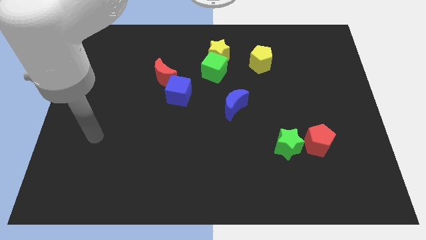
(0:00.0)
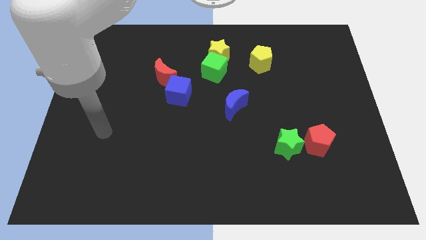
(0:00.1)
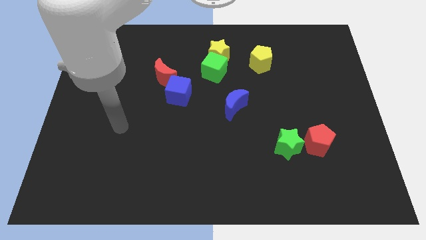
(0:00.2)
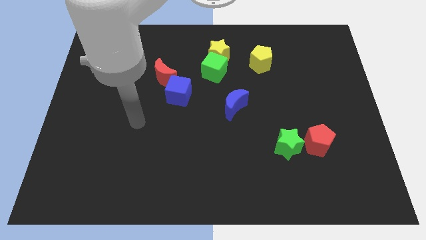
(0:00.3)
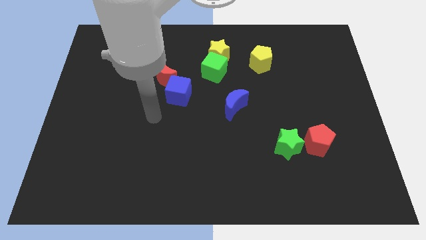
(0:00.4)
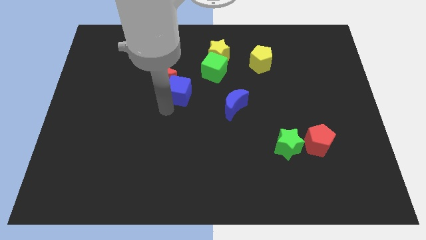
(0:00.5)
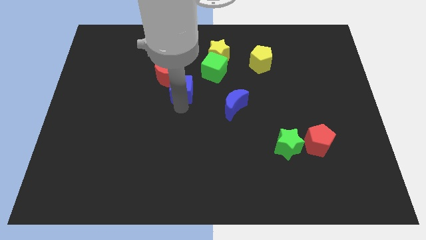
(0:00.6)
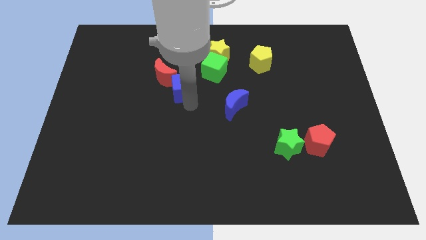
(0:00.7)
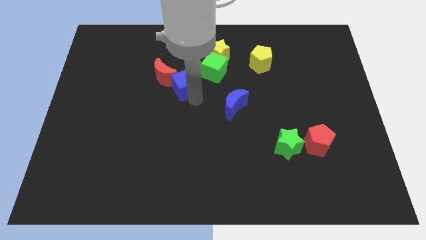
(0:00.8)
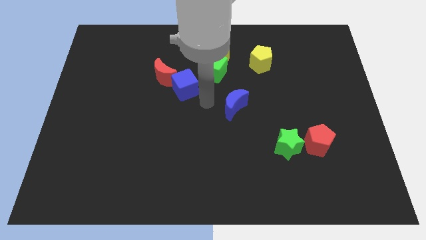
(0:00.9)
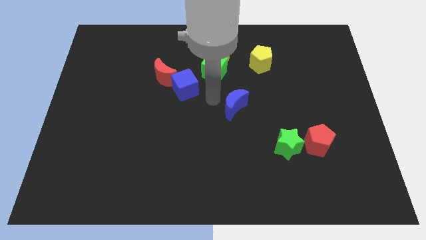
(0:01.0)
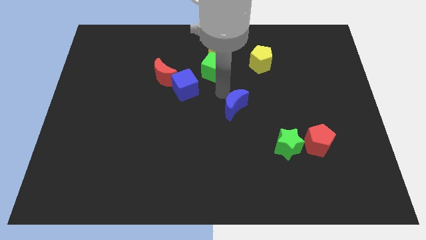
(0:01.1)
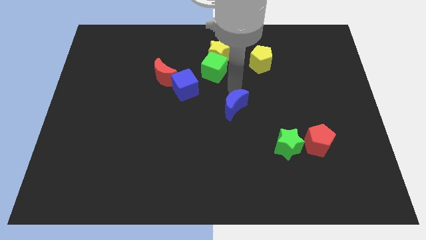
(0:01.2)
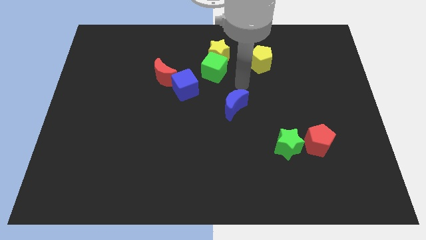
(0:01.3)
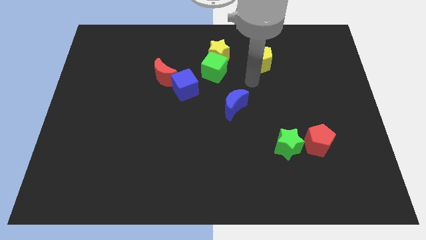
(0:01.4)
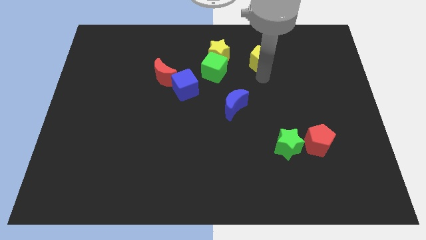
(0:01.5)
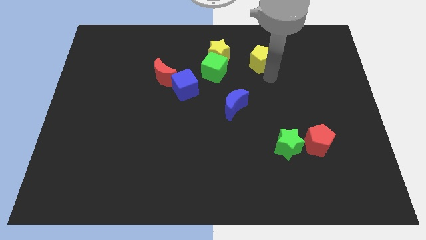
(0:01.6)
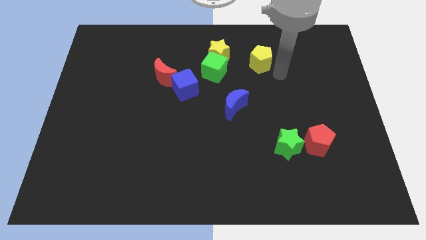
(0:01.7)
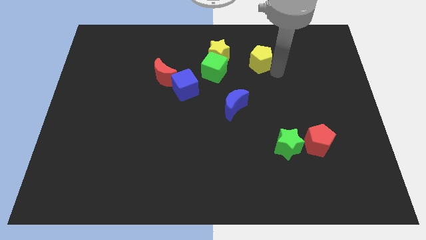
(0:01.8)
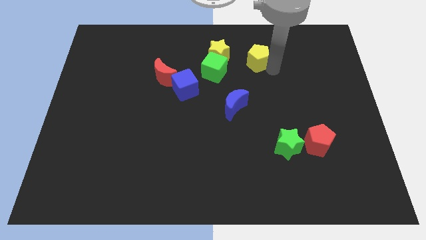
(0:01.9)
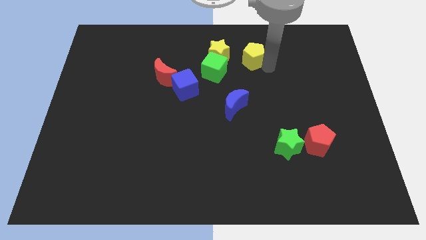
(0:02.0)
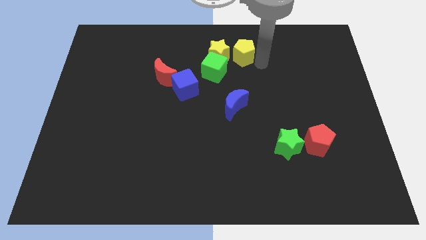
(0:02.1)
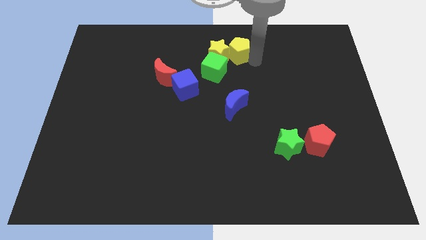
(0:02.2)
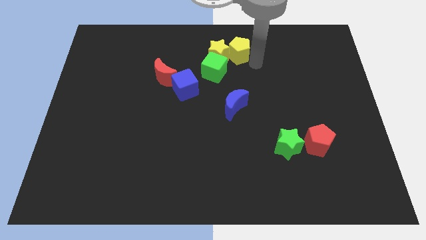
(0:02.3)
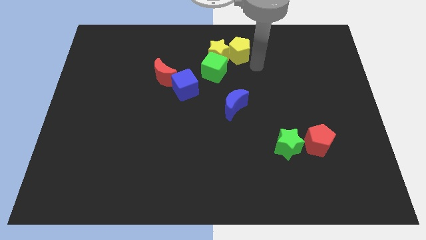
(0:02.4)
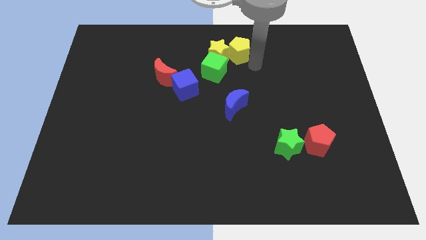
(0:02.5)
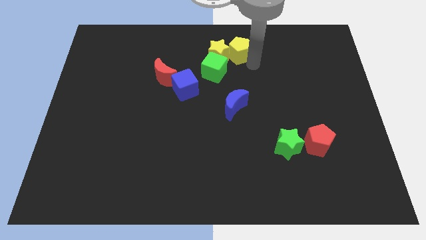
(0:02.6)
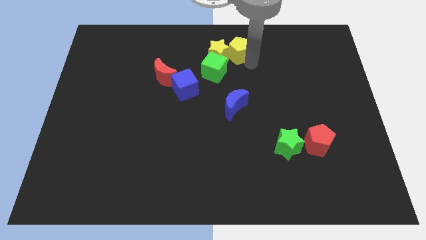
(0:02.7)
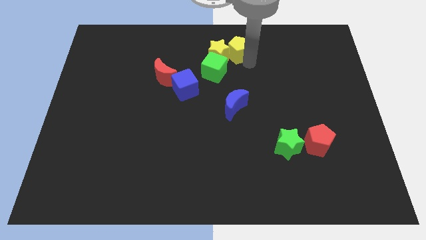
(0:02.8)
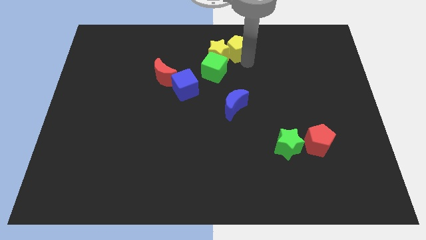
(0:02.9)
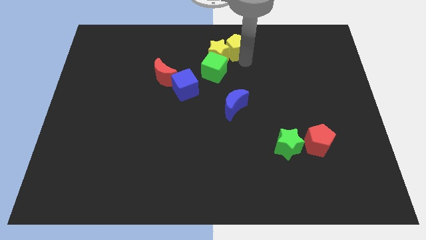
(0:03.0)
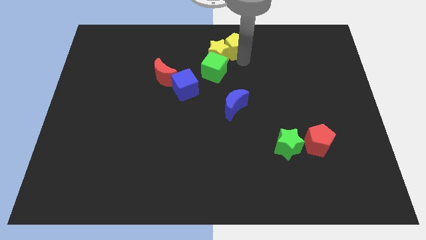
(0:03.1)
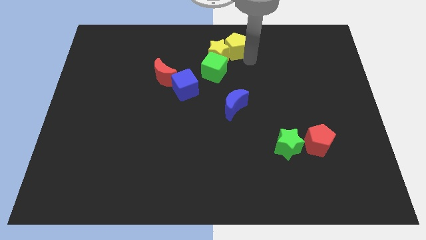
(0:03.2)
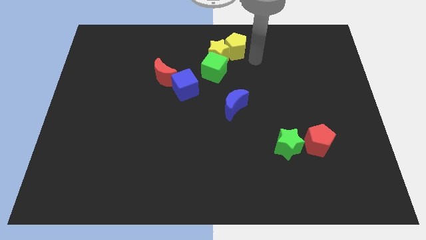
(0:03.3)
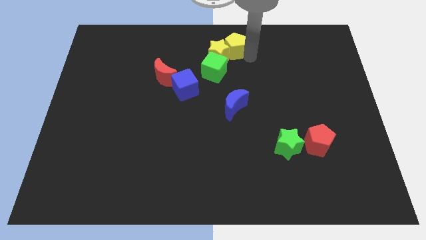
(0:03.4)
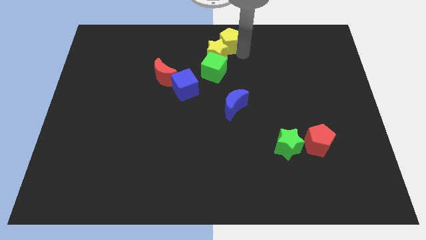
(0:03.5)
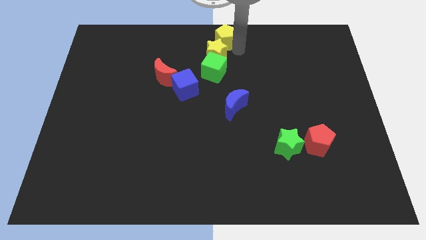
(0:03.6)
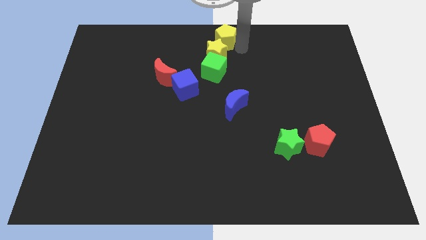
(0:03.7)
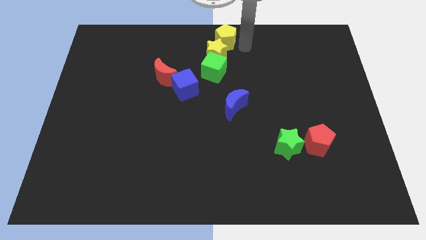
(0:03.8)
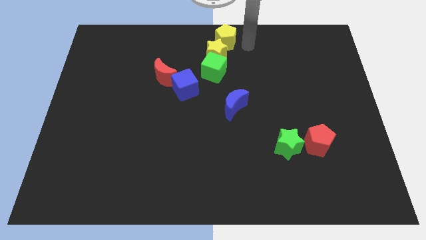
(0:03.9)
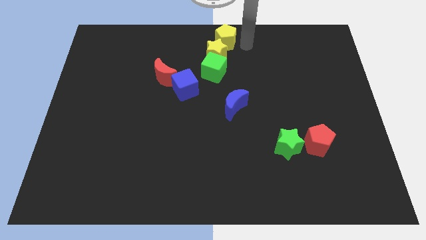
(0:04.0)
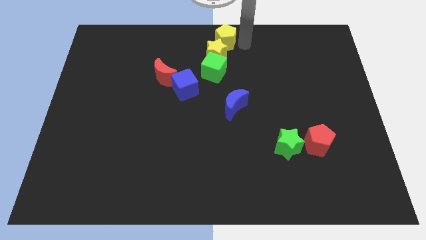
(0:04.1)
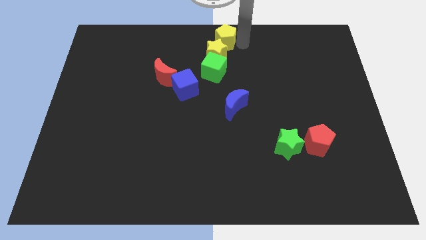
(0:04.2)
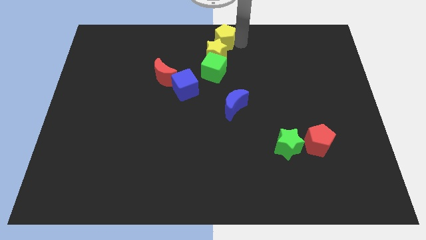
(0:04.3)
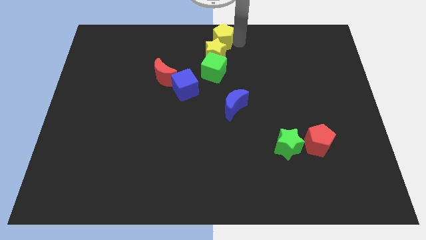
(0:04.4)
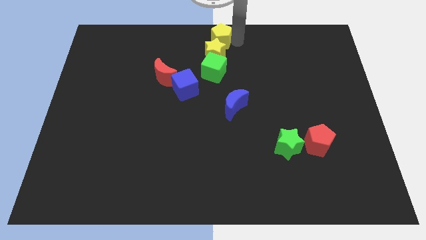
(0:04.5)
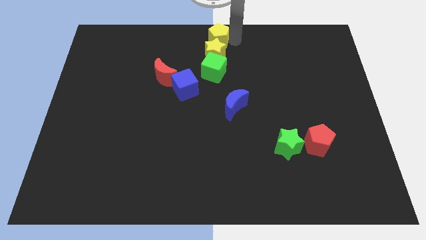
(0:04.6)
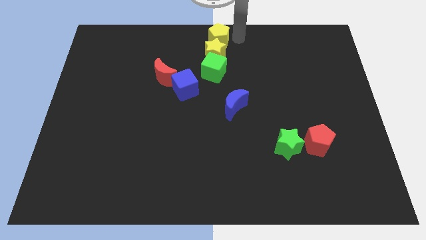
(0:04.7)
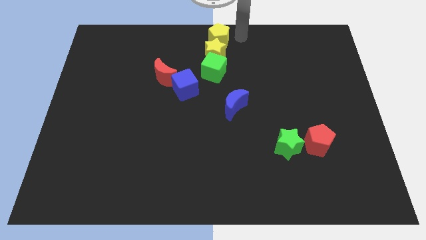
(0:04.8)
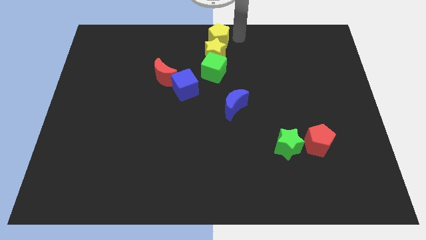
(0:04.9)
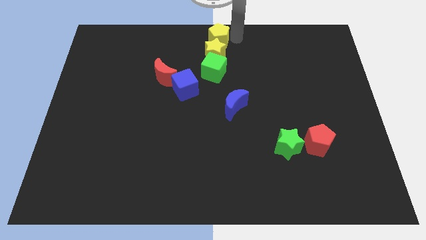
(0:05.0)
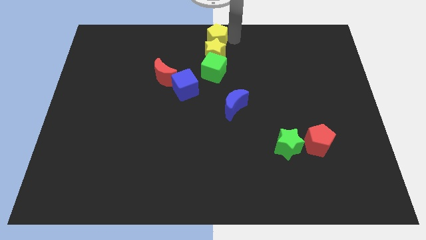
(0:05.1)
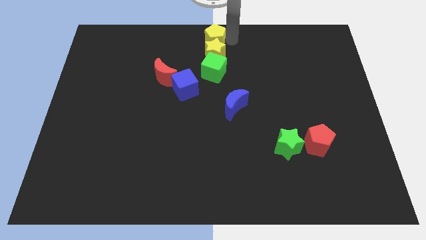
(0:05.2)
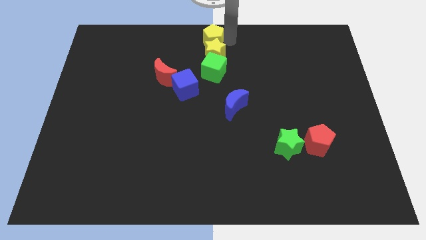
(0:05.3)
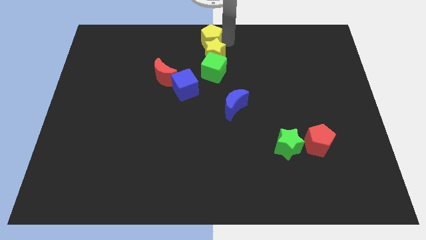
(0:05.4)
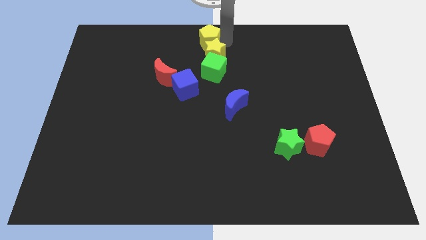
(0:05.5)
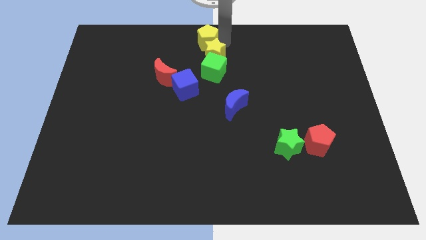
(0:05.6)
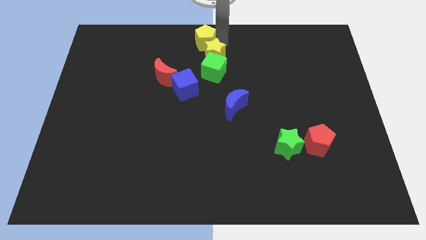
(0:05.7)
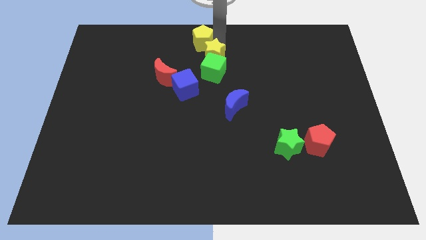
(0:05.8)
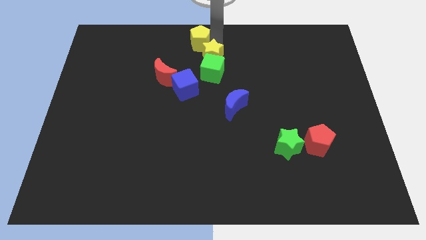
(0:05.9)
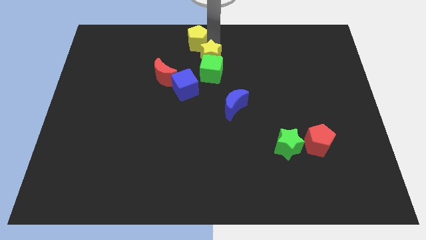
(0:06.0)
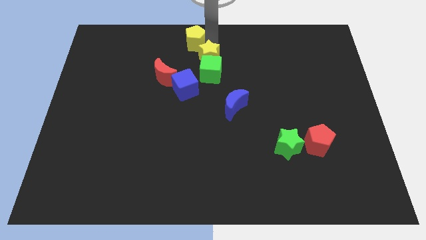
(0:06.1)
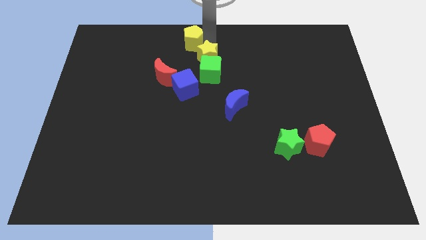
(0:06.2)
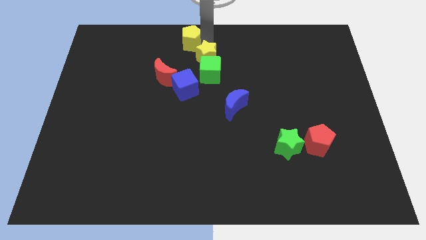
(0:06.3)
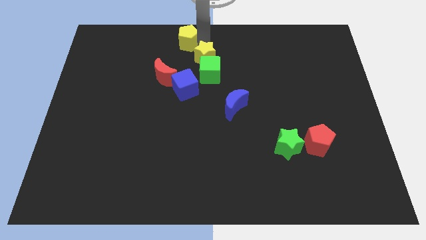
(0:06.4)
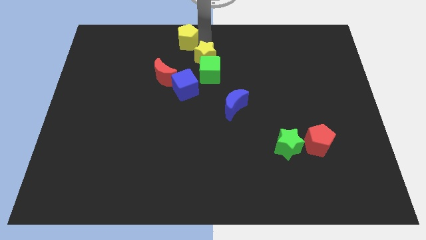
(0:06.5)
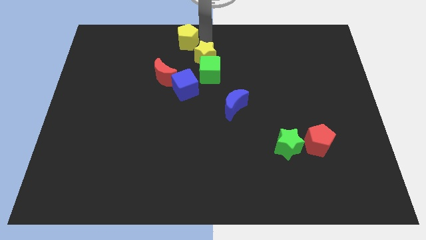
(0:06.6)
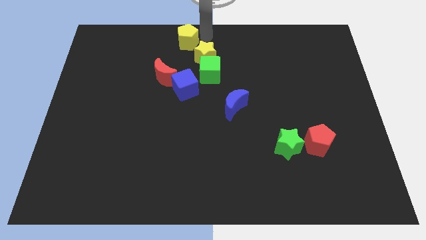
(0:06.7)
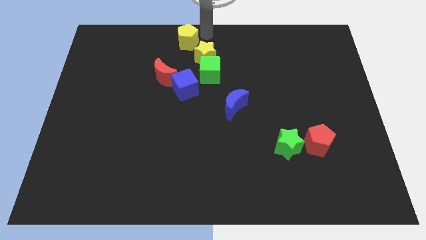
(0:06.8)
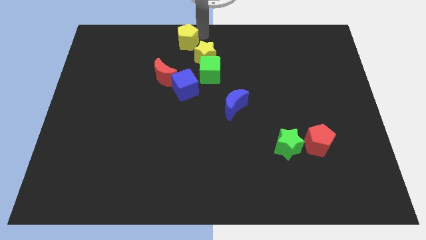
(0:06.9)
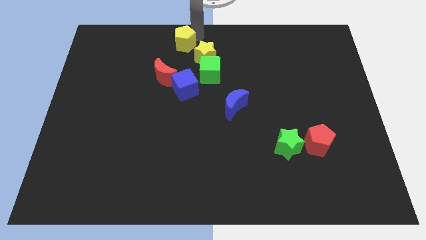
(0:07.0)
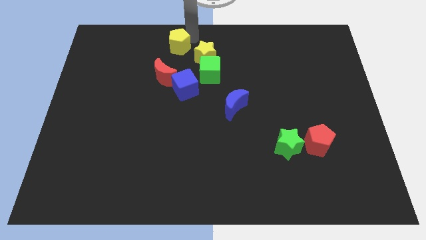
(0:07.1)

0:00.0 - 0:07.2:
slide the yellow pentagon left

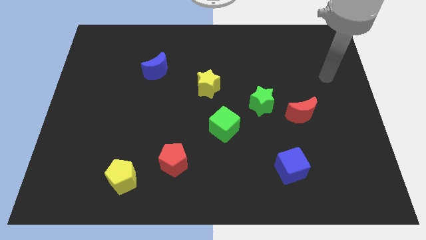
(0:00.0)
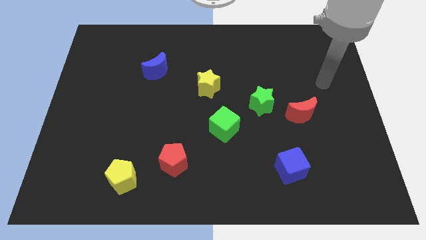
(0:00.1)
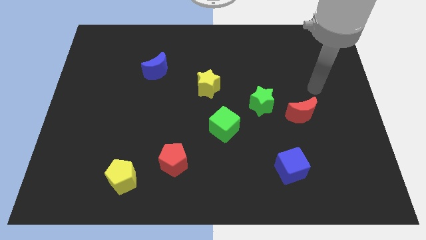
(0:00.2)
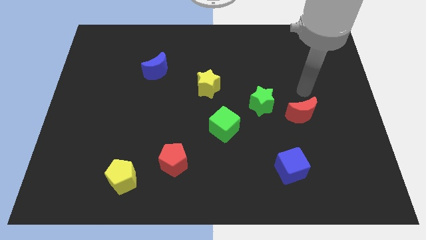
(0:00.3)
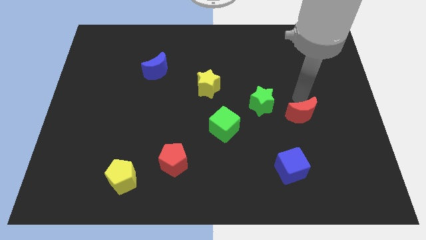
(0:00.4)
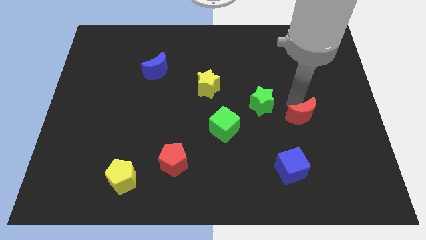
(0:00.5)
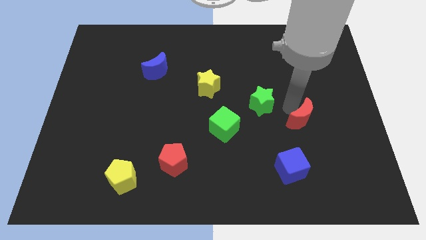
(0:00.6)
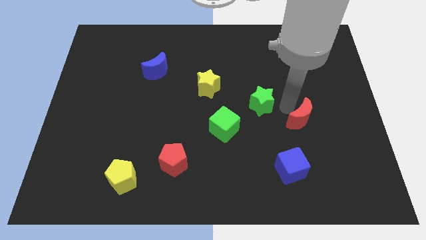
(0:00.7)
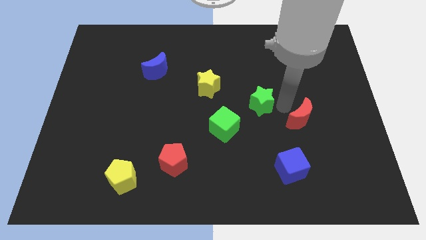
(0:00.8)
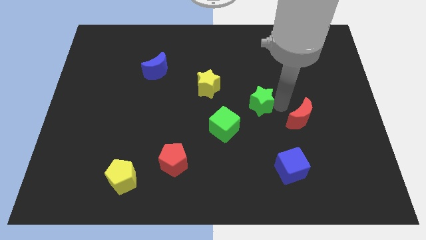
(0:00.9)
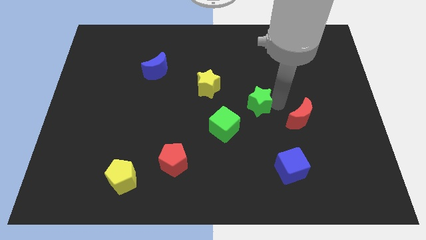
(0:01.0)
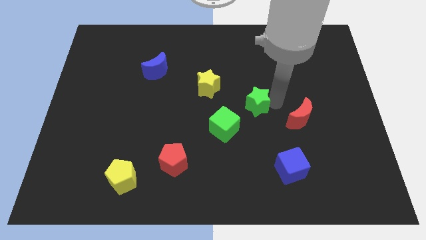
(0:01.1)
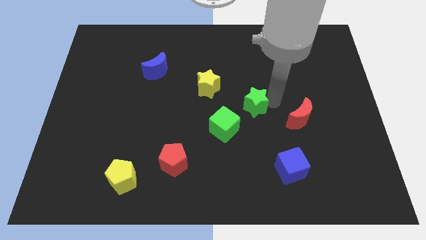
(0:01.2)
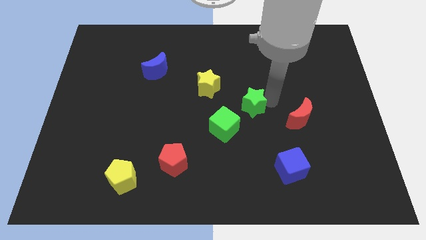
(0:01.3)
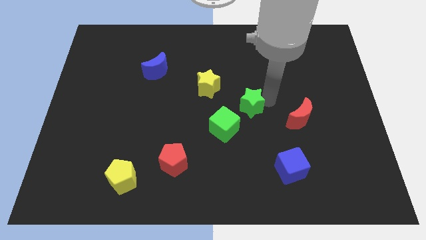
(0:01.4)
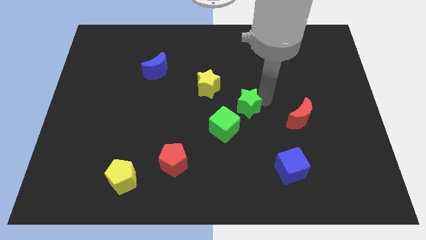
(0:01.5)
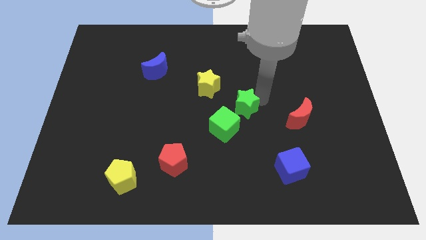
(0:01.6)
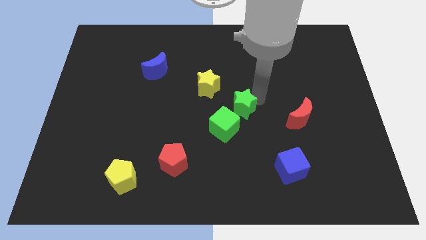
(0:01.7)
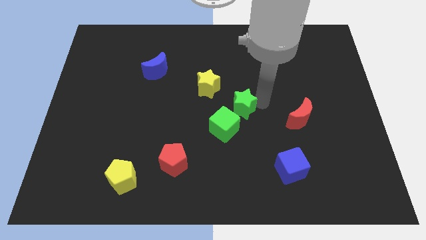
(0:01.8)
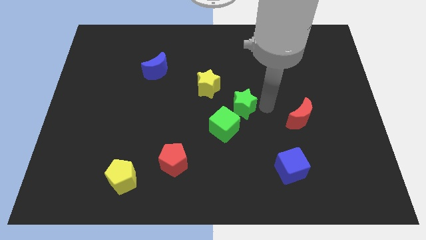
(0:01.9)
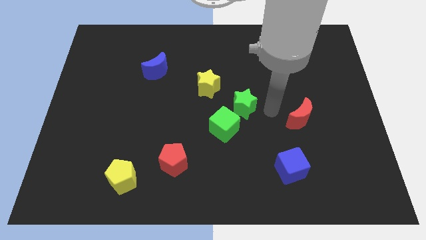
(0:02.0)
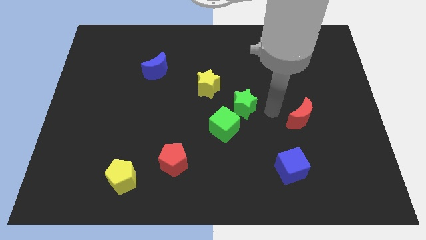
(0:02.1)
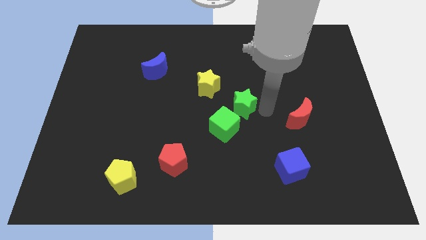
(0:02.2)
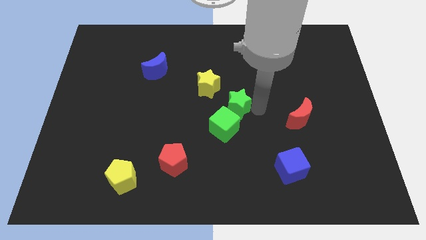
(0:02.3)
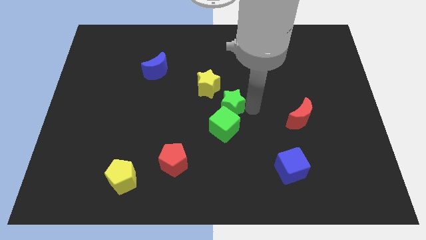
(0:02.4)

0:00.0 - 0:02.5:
slightly slide the green star left
